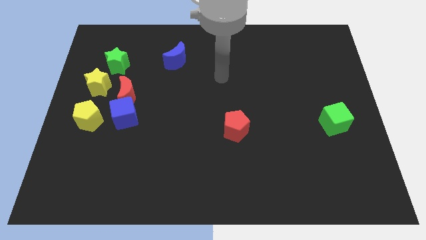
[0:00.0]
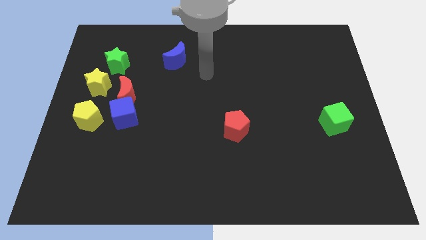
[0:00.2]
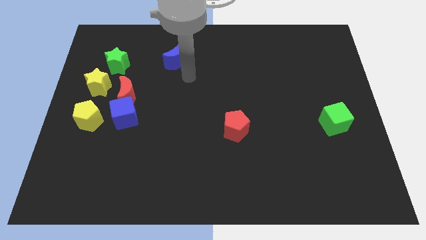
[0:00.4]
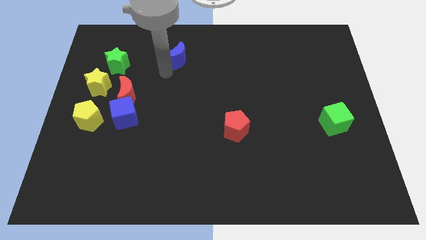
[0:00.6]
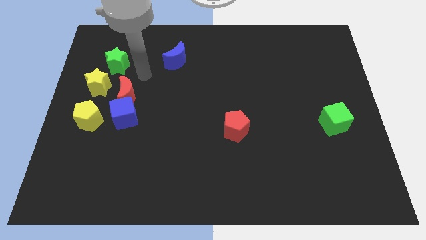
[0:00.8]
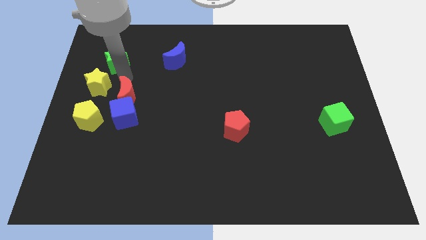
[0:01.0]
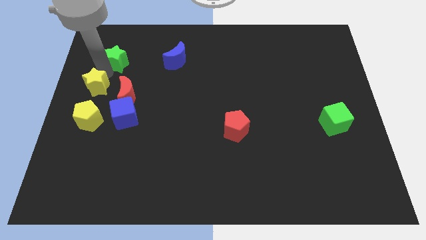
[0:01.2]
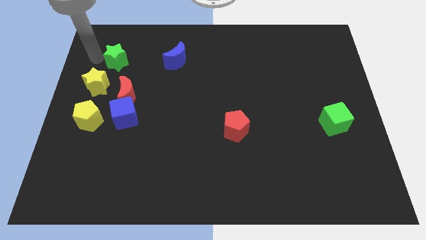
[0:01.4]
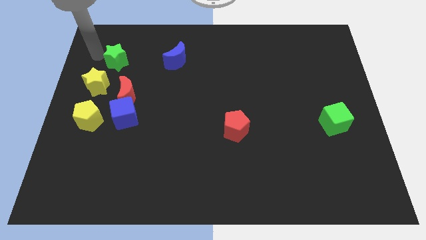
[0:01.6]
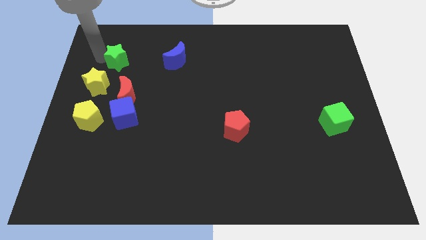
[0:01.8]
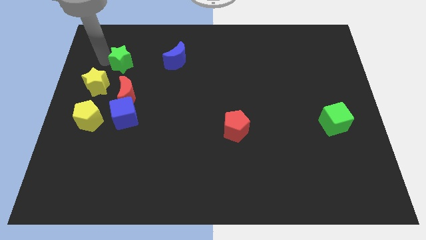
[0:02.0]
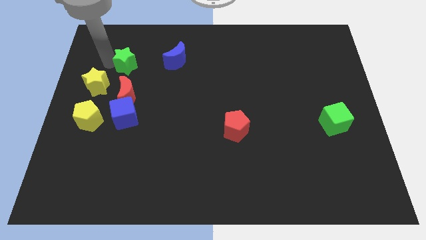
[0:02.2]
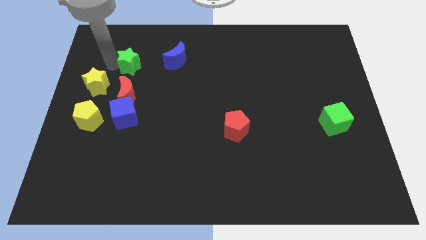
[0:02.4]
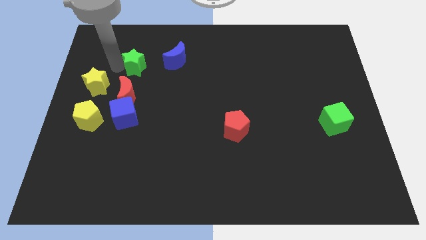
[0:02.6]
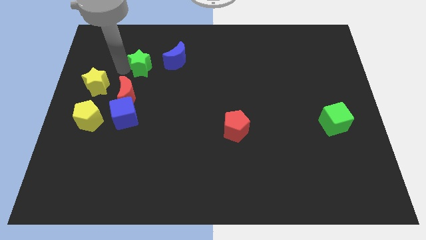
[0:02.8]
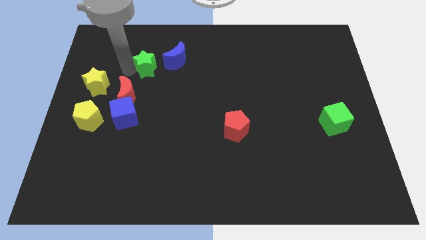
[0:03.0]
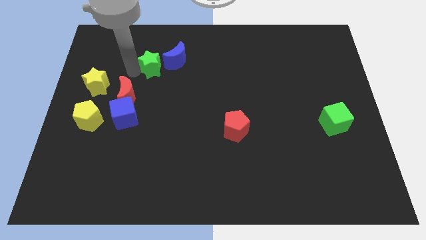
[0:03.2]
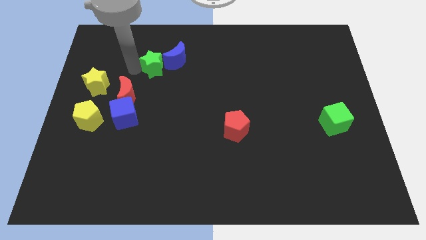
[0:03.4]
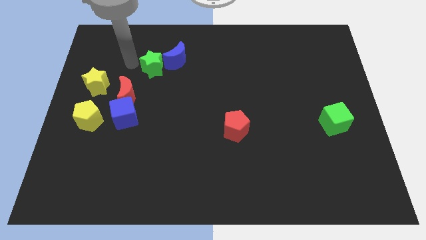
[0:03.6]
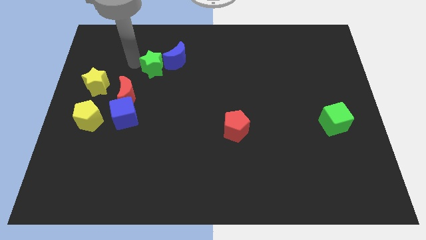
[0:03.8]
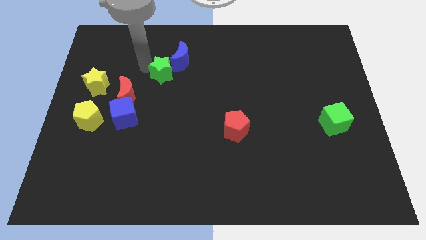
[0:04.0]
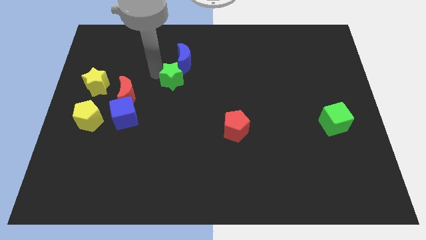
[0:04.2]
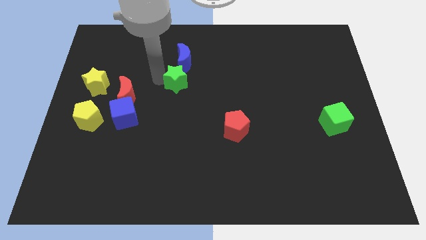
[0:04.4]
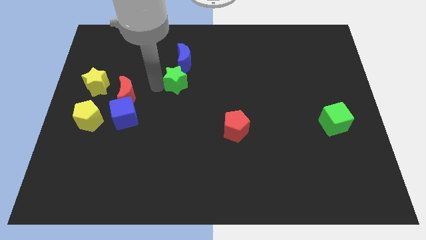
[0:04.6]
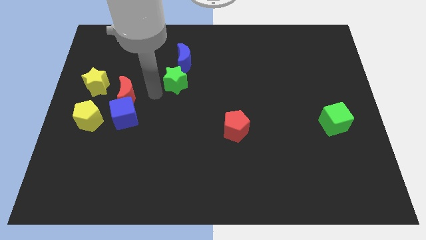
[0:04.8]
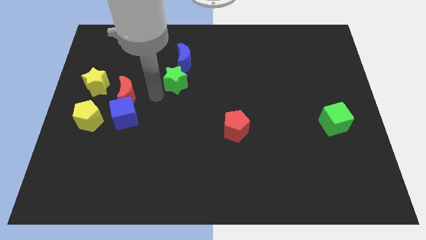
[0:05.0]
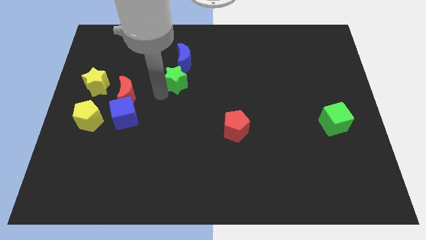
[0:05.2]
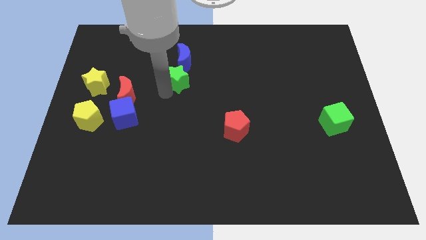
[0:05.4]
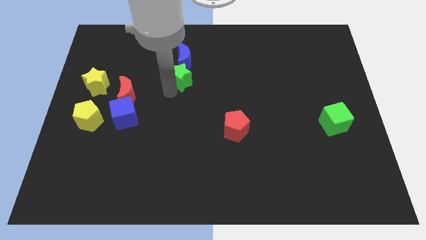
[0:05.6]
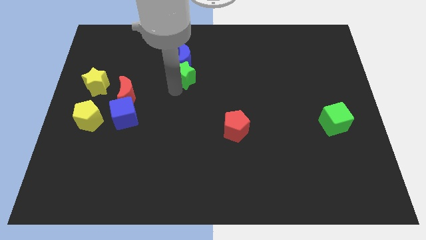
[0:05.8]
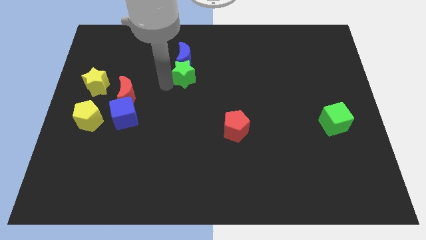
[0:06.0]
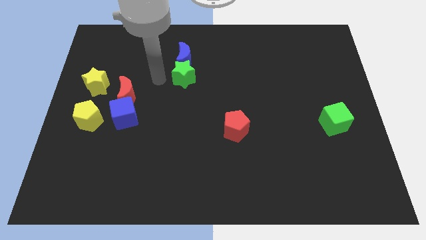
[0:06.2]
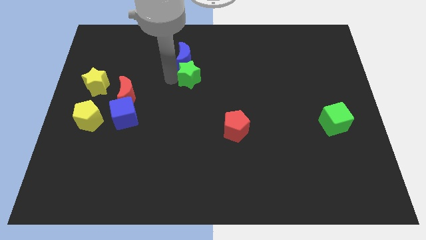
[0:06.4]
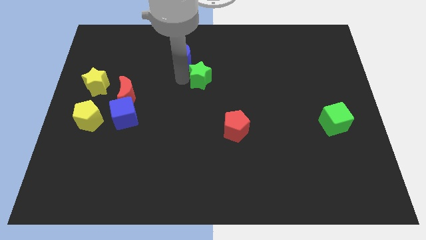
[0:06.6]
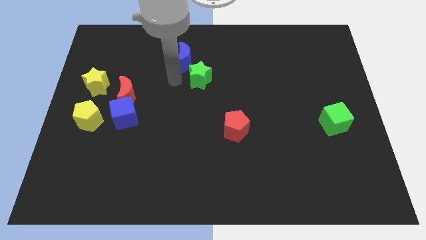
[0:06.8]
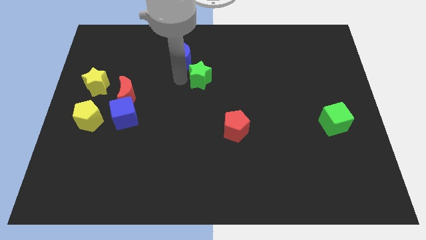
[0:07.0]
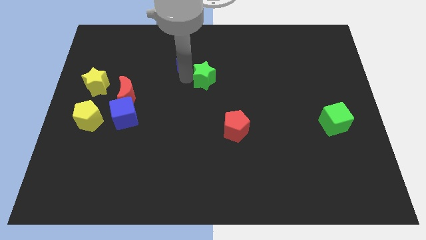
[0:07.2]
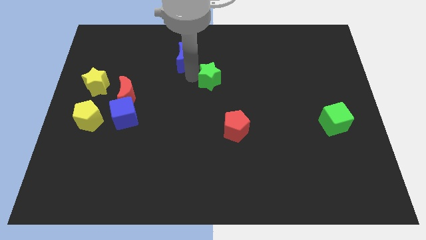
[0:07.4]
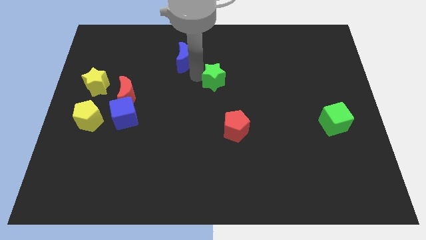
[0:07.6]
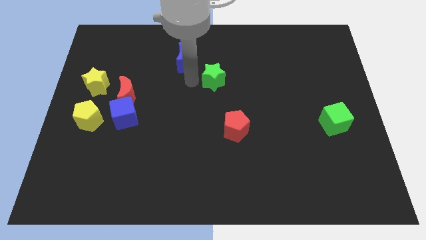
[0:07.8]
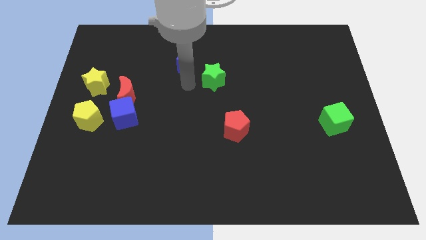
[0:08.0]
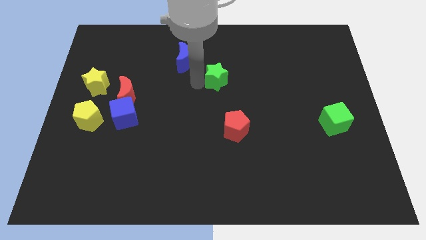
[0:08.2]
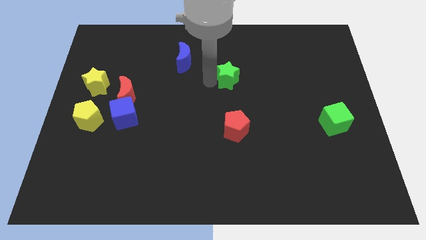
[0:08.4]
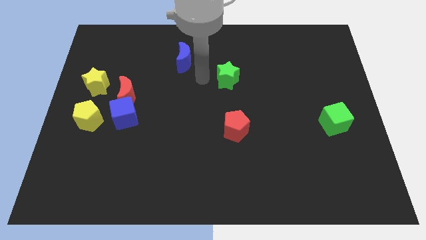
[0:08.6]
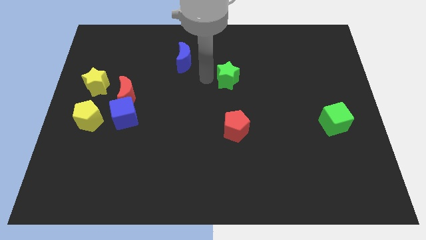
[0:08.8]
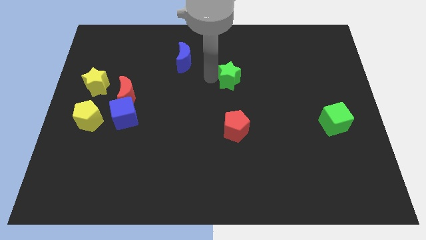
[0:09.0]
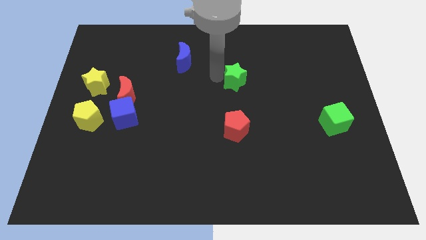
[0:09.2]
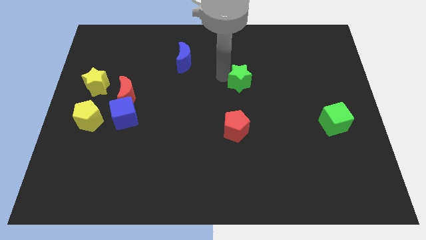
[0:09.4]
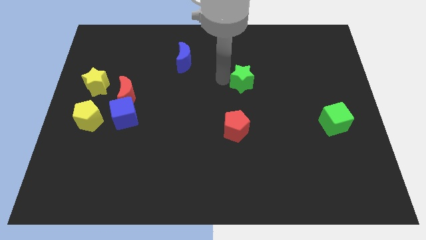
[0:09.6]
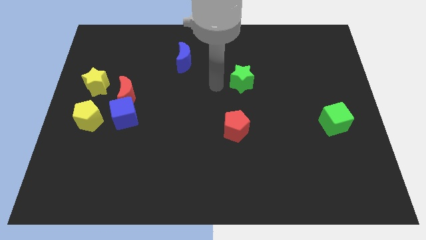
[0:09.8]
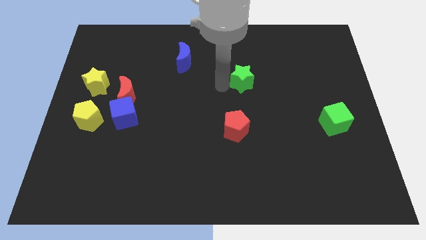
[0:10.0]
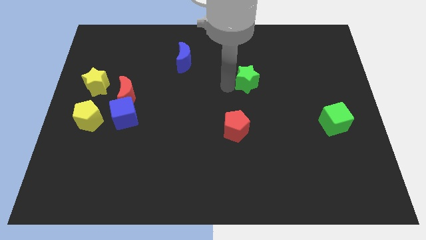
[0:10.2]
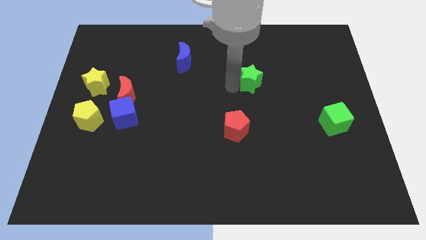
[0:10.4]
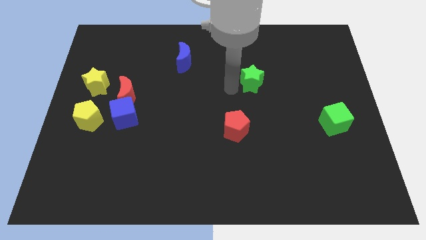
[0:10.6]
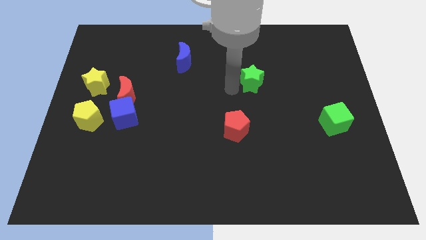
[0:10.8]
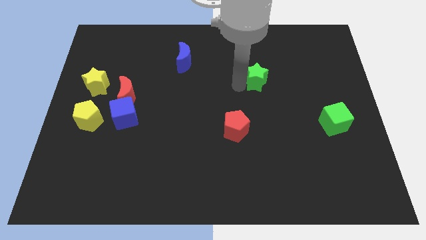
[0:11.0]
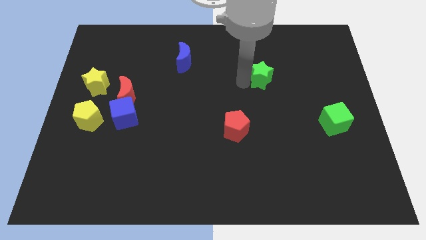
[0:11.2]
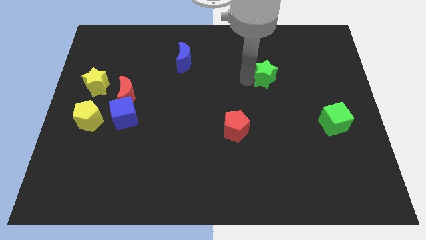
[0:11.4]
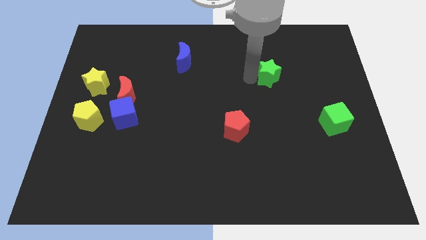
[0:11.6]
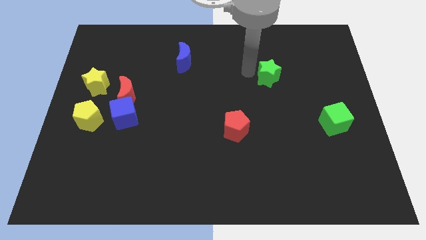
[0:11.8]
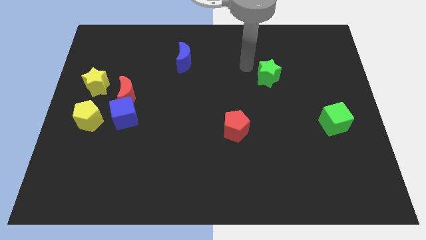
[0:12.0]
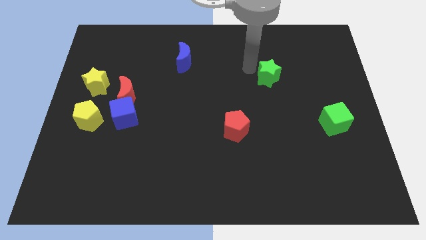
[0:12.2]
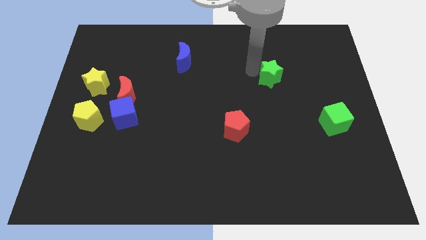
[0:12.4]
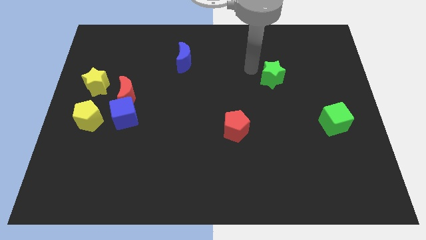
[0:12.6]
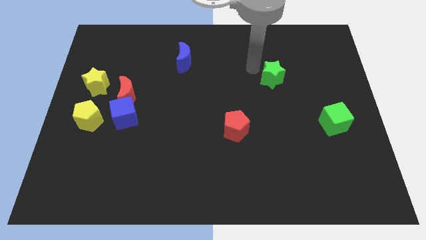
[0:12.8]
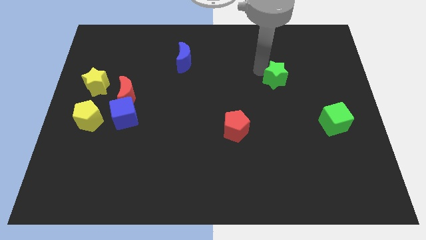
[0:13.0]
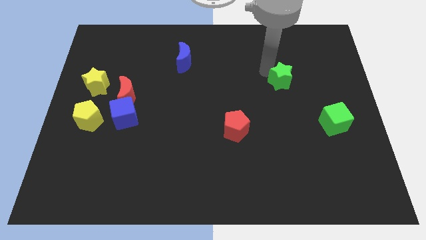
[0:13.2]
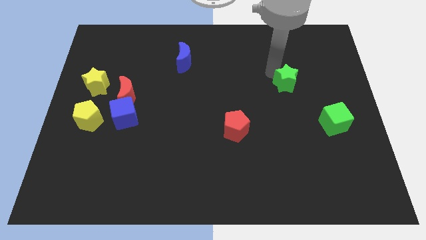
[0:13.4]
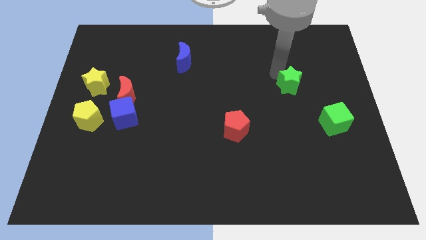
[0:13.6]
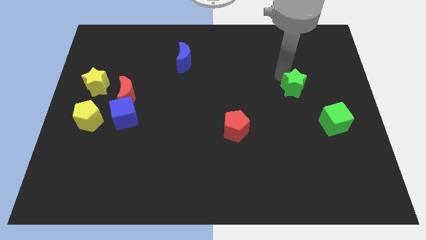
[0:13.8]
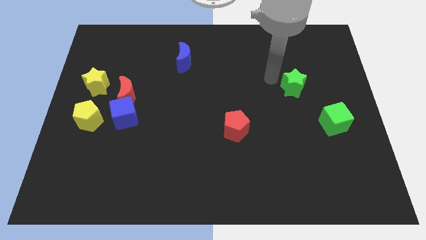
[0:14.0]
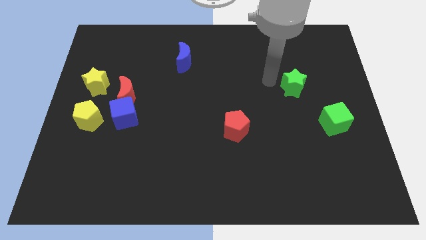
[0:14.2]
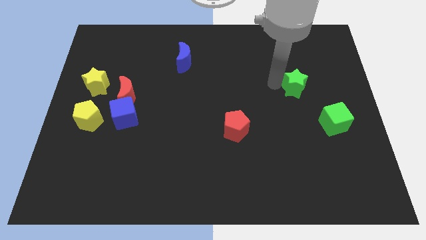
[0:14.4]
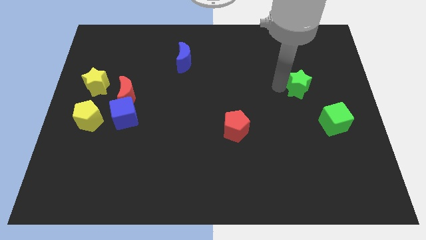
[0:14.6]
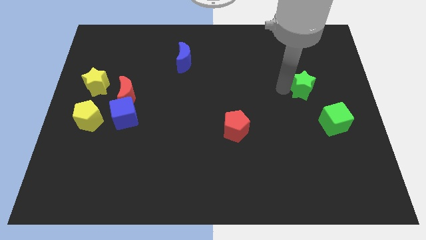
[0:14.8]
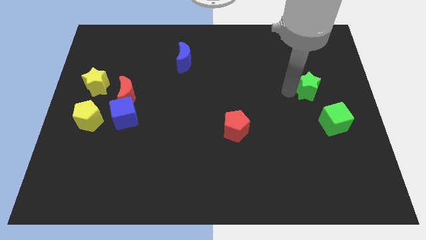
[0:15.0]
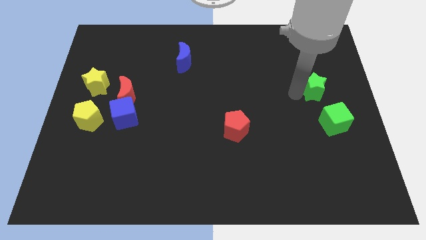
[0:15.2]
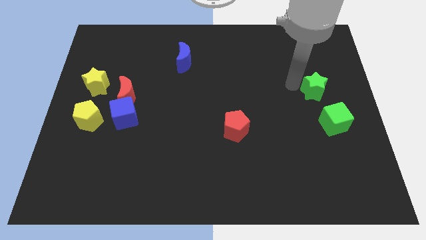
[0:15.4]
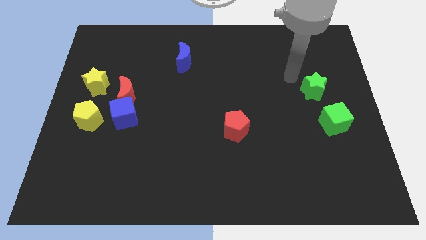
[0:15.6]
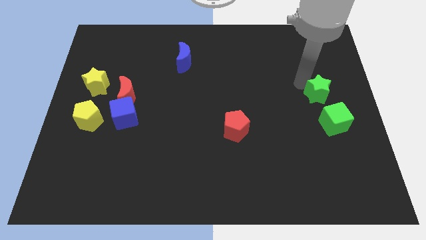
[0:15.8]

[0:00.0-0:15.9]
put the green star to the center right
